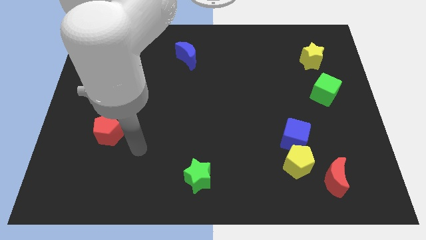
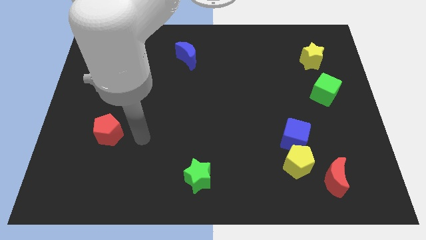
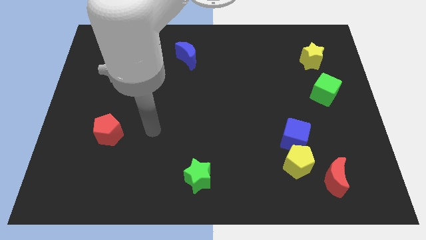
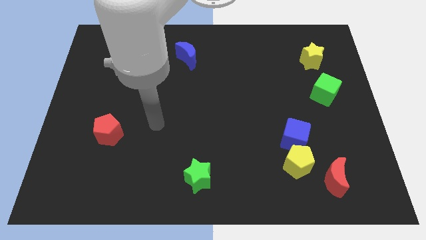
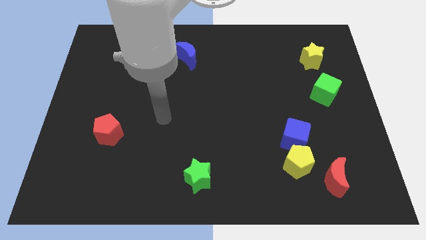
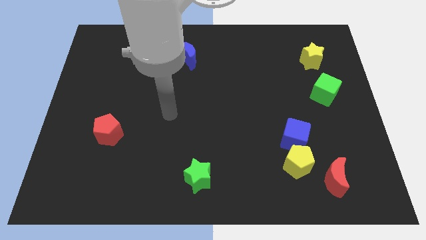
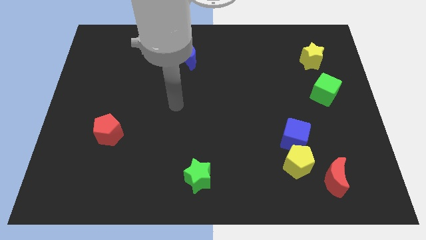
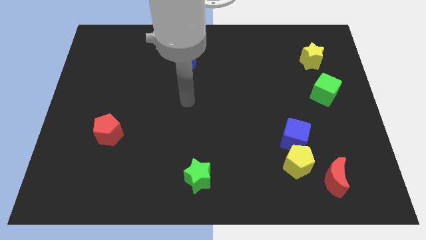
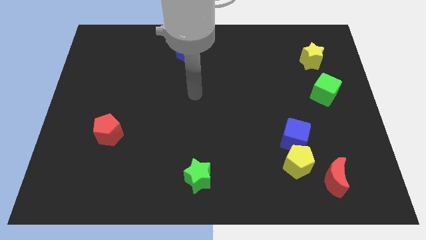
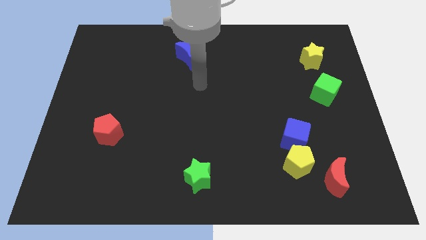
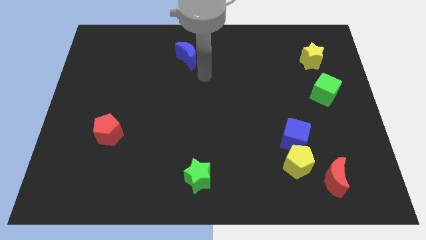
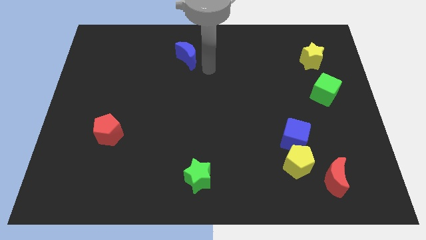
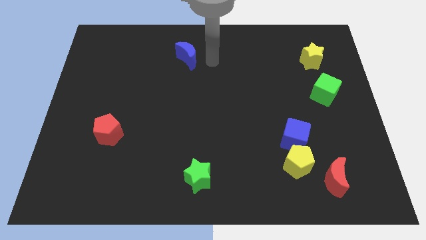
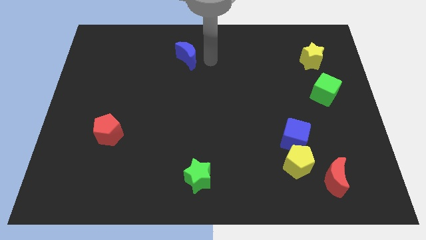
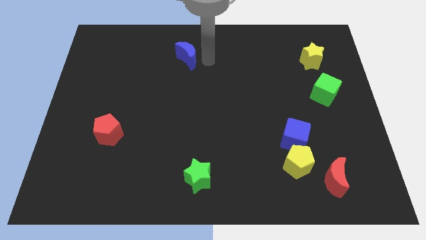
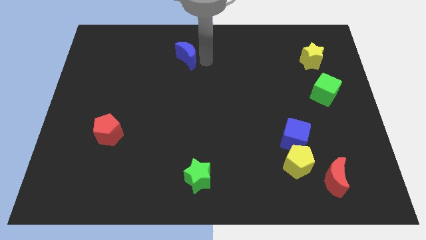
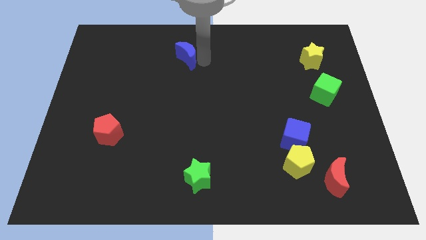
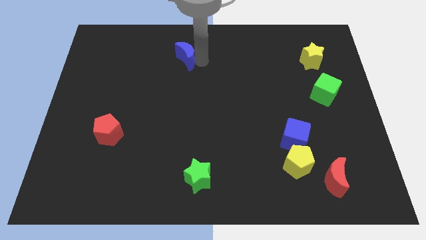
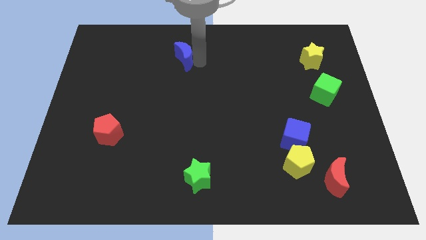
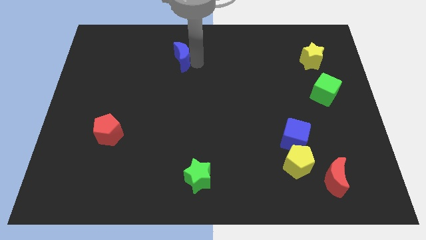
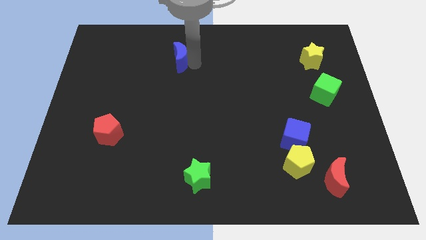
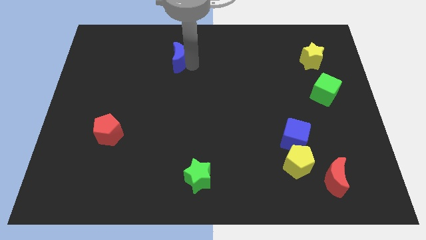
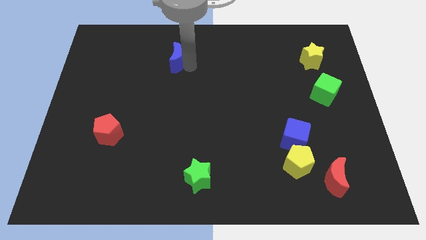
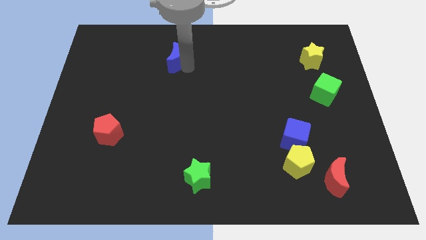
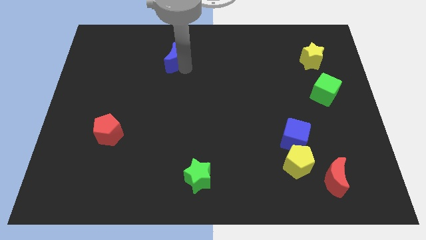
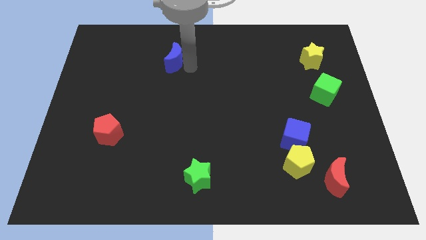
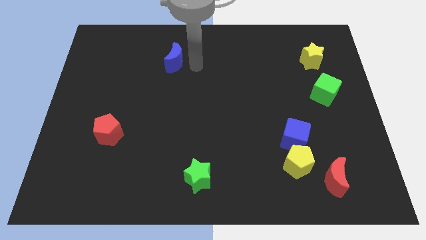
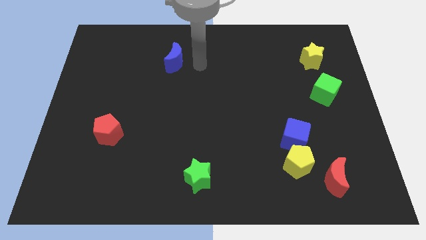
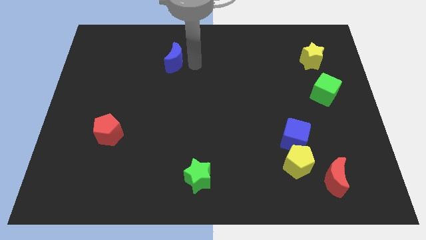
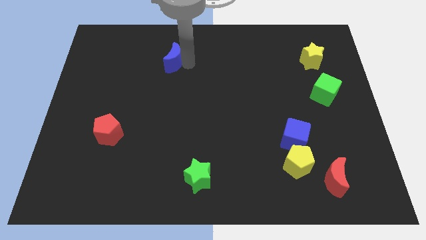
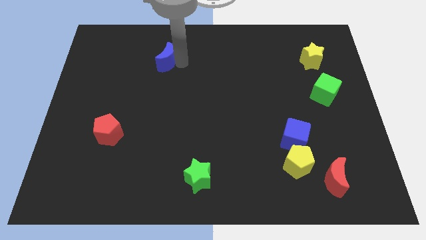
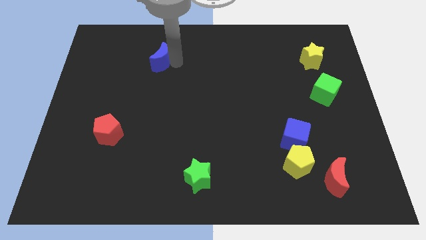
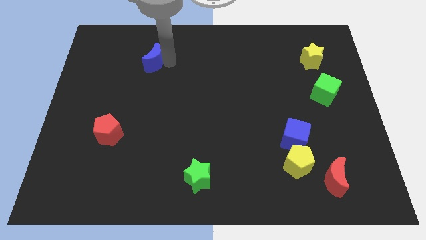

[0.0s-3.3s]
slide the blue moon to the left a bit

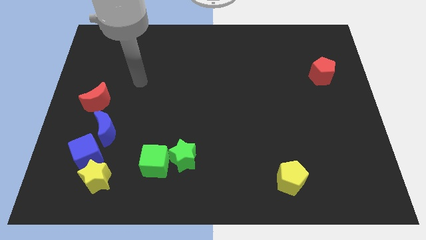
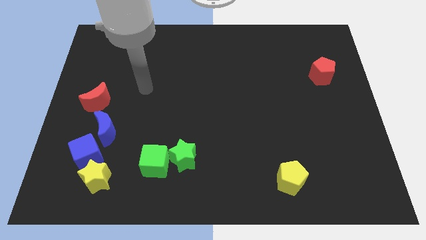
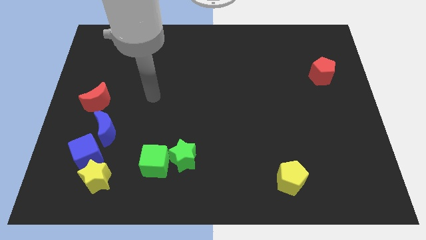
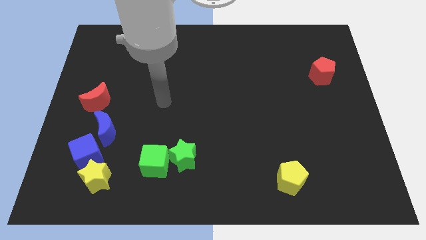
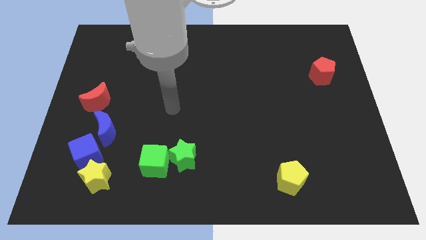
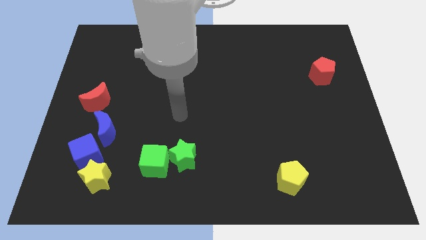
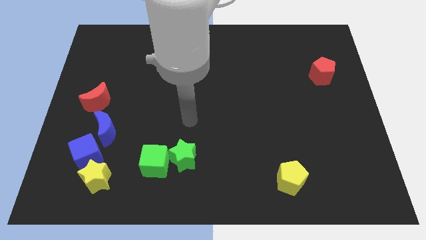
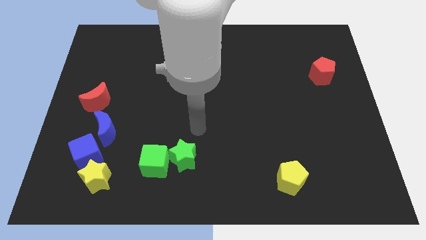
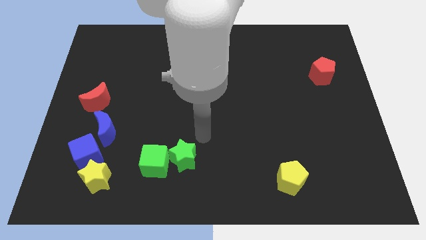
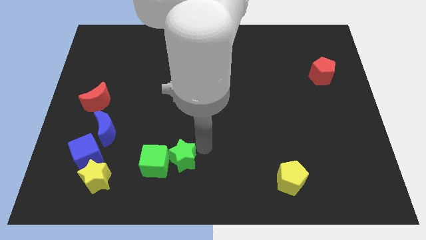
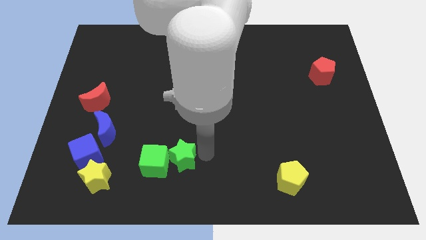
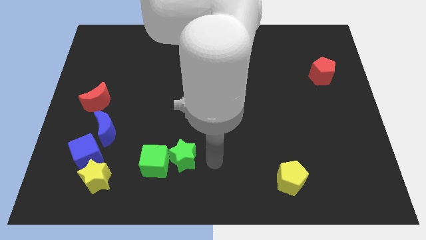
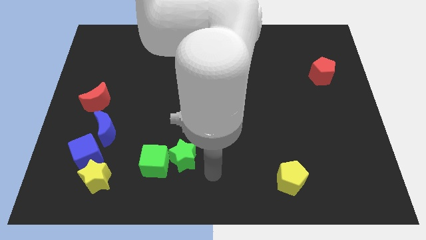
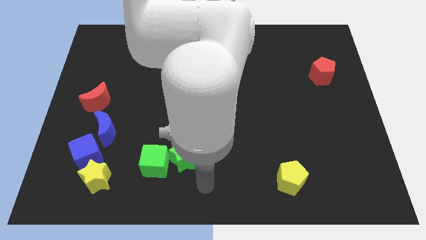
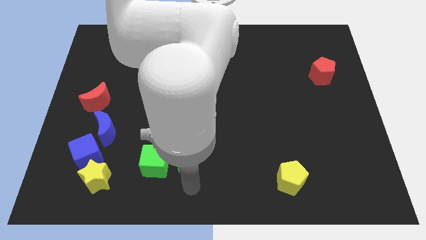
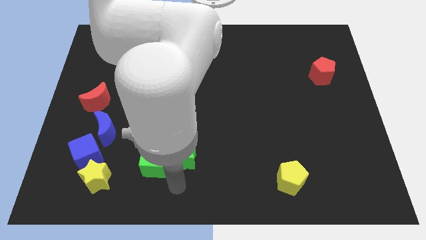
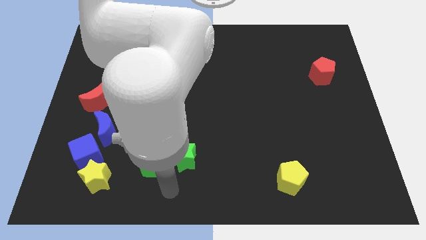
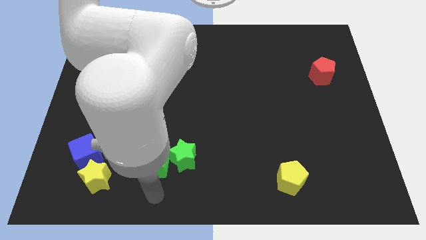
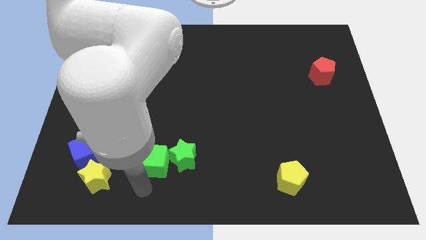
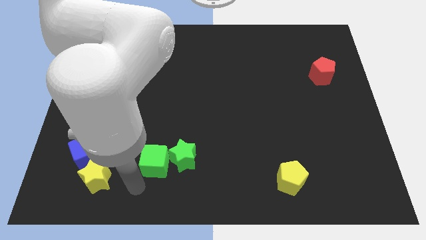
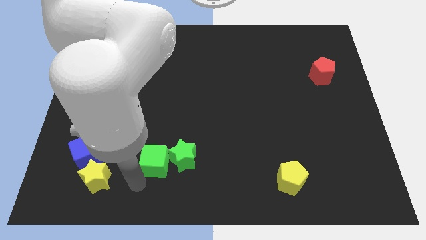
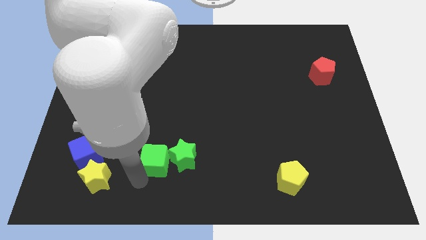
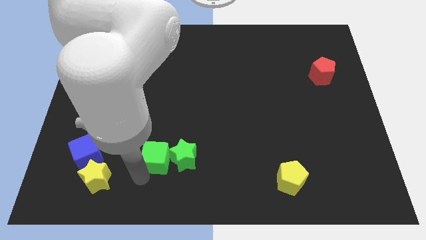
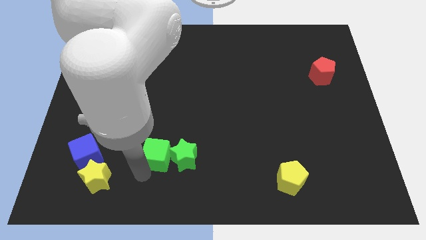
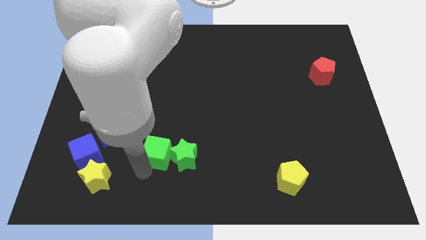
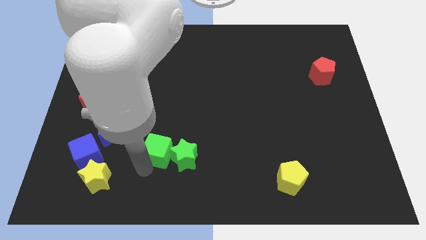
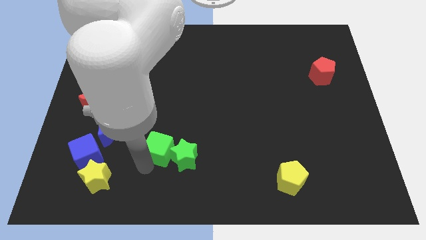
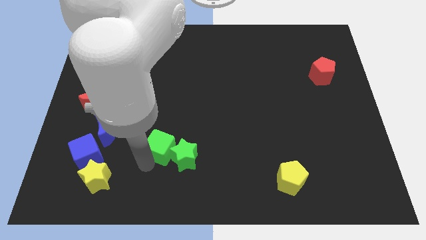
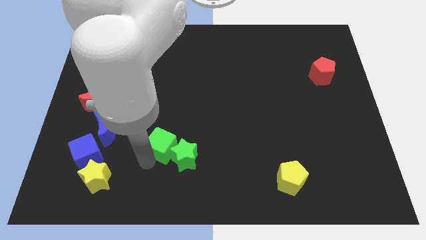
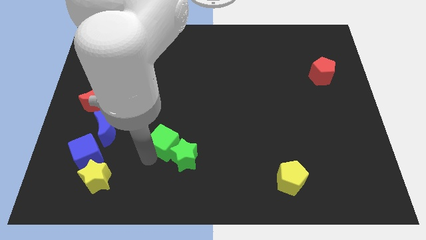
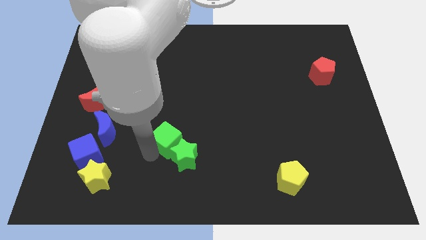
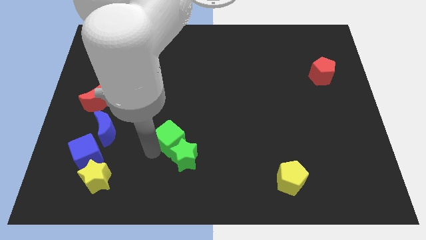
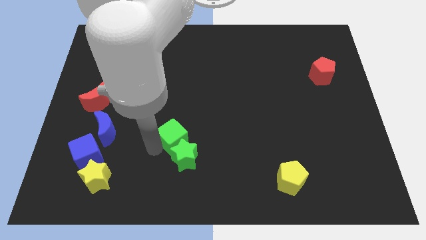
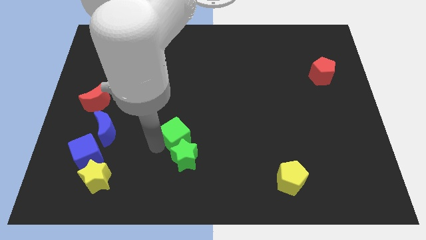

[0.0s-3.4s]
push the green cube a bit up and to the right

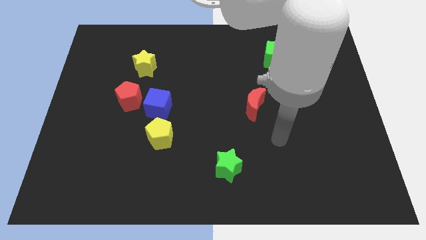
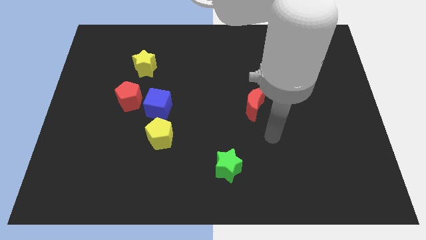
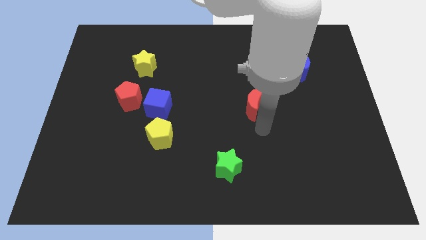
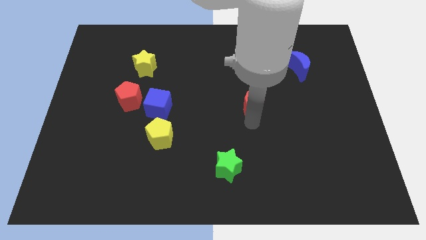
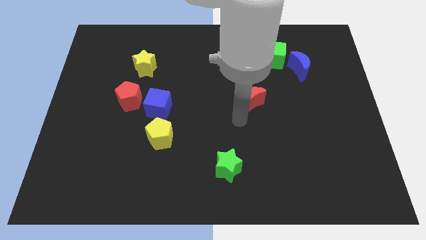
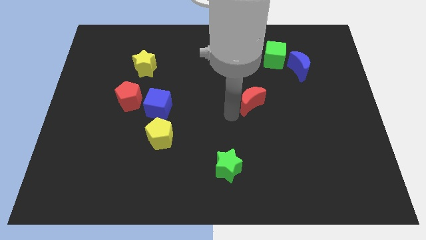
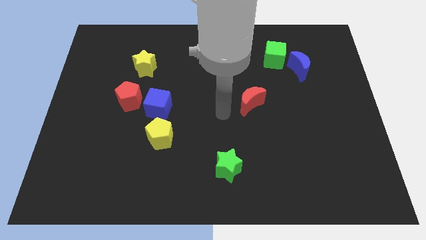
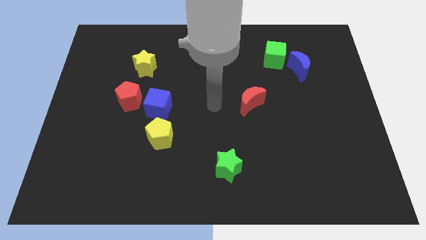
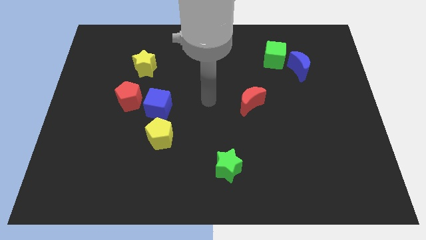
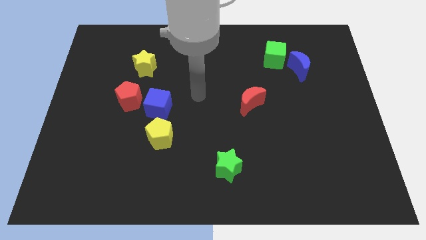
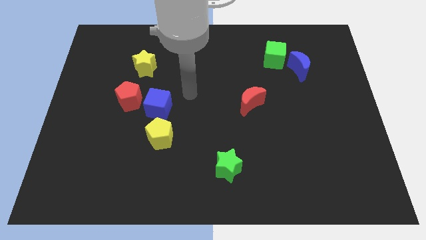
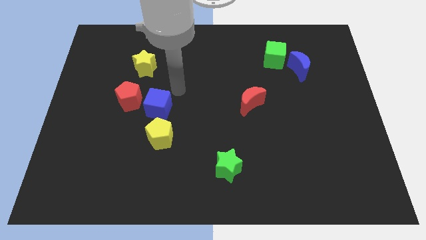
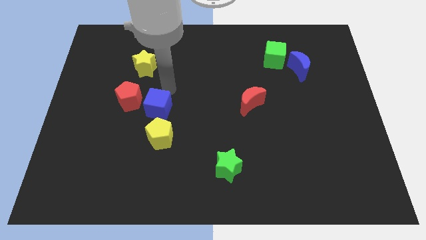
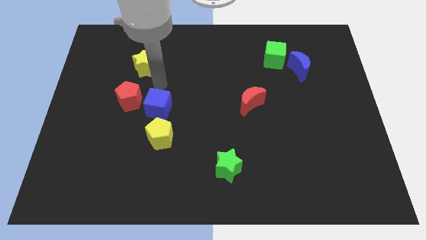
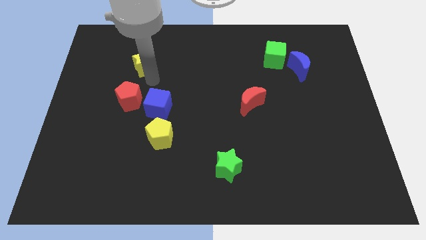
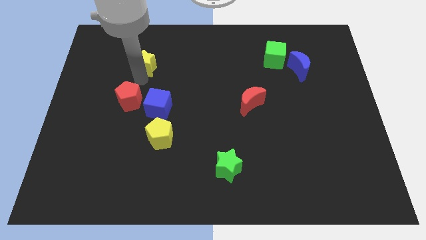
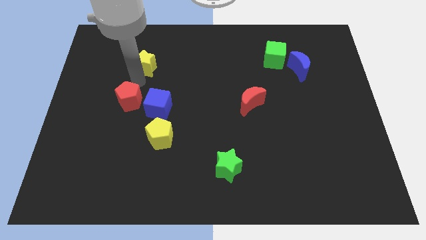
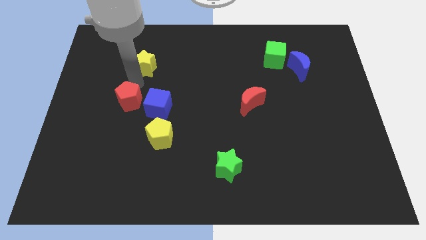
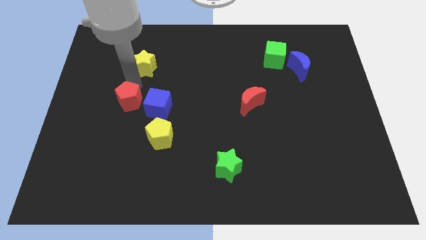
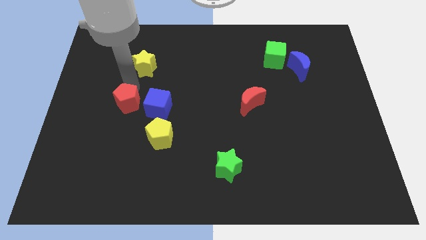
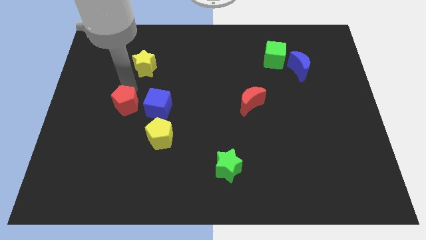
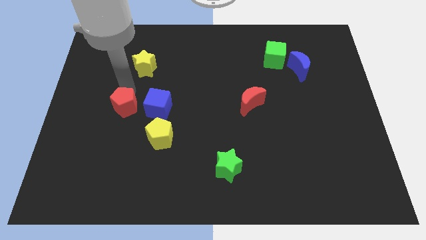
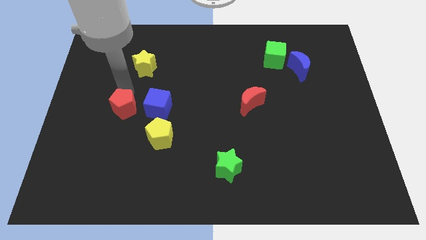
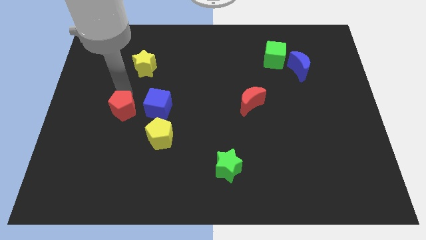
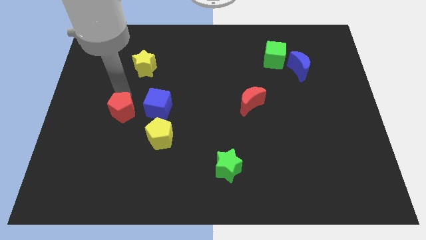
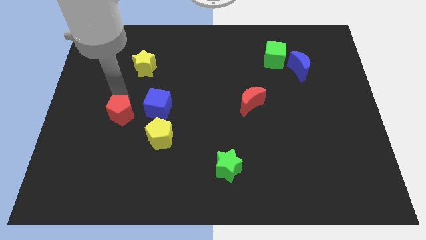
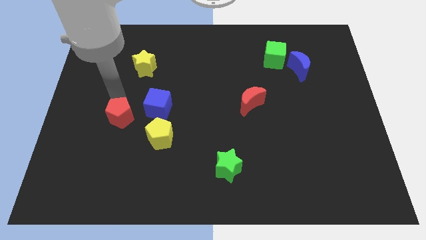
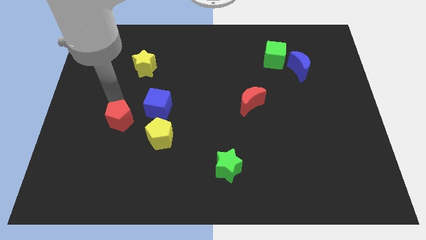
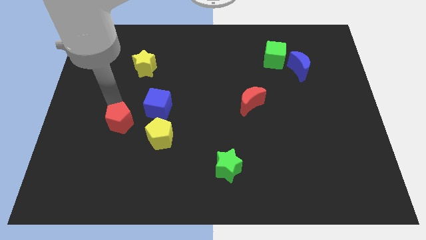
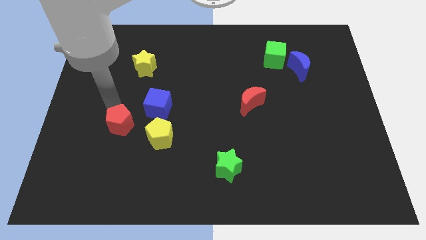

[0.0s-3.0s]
push the red pentagon a bit down
